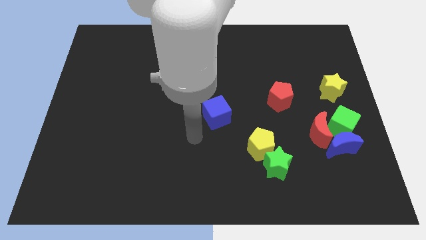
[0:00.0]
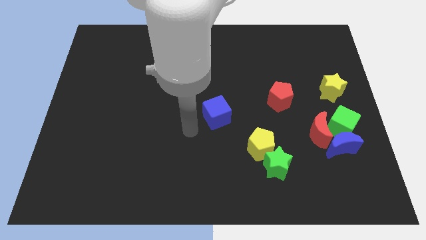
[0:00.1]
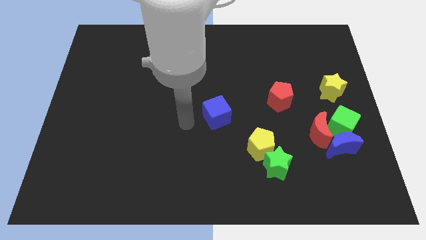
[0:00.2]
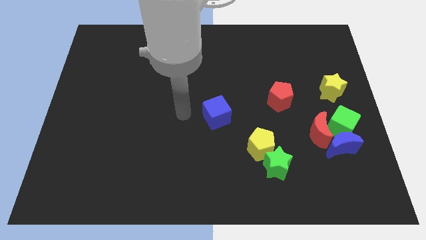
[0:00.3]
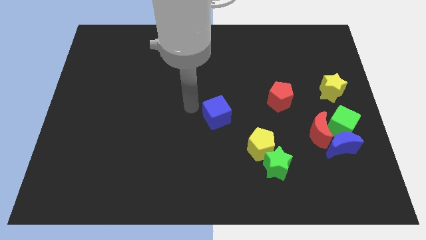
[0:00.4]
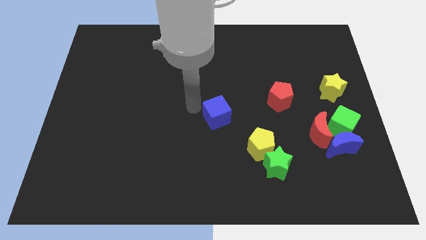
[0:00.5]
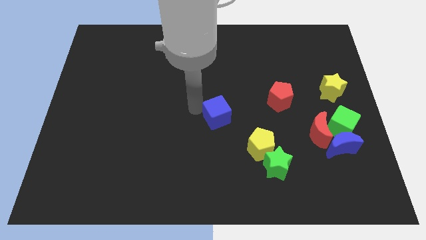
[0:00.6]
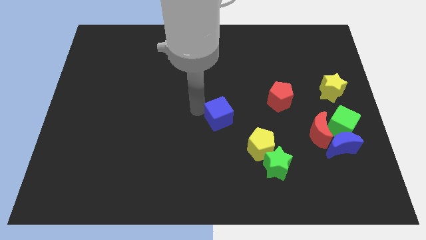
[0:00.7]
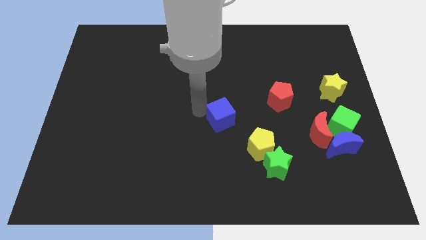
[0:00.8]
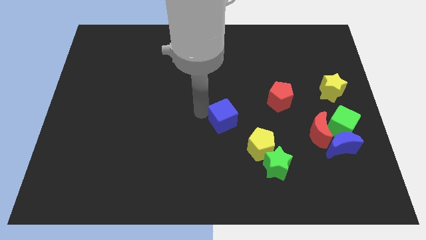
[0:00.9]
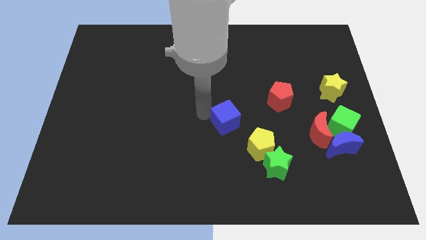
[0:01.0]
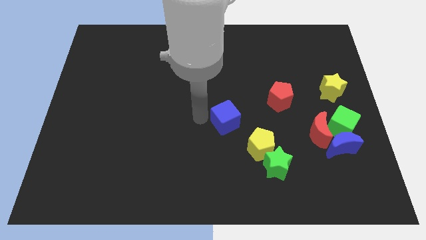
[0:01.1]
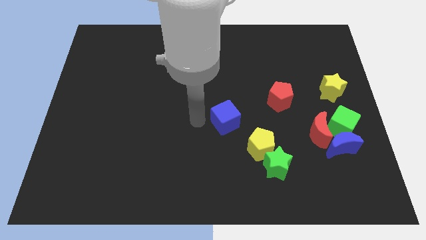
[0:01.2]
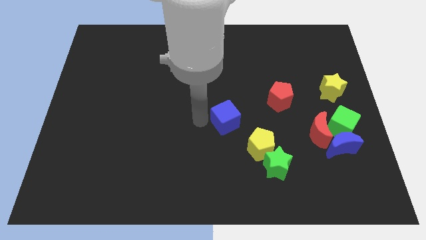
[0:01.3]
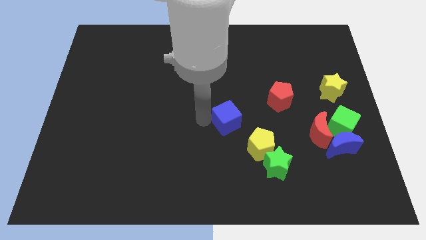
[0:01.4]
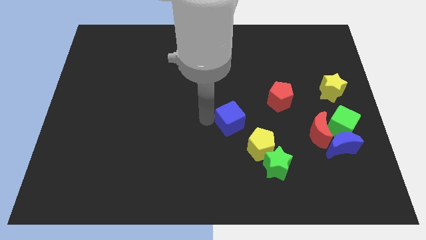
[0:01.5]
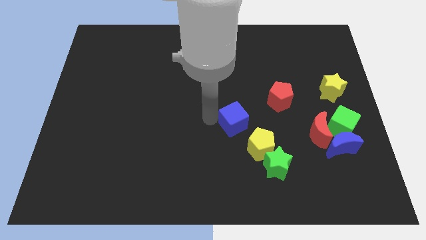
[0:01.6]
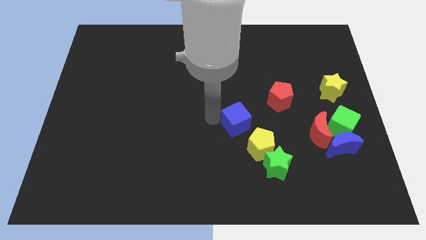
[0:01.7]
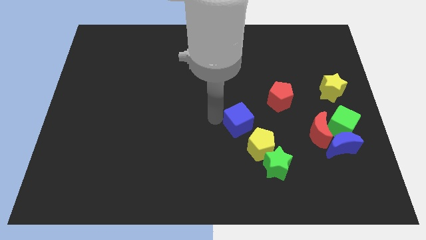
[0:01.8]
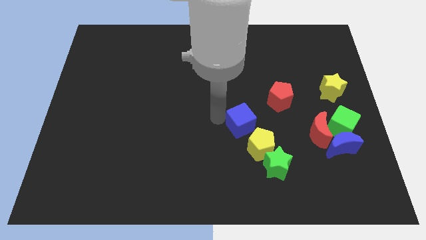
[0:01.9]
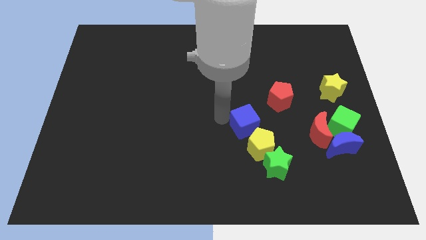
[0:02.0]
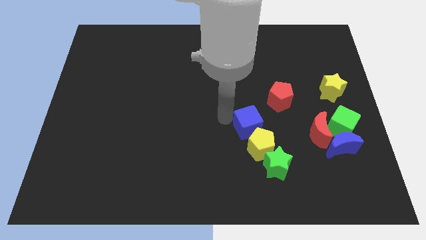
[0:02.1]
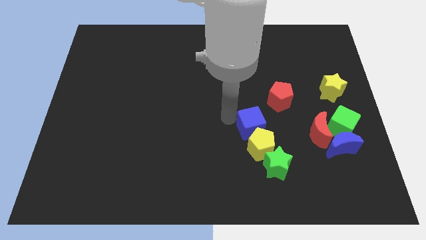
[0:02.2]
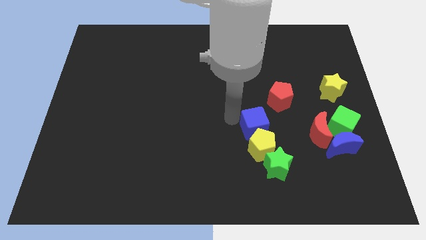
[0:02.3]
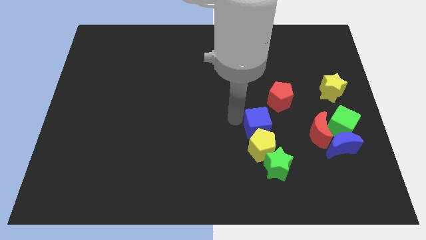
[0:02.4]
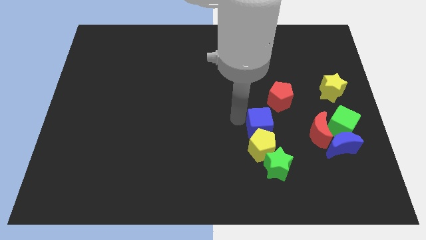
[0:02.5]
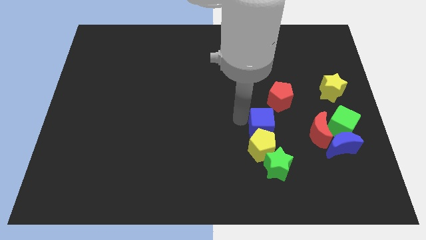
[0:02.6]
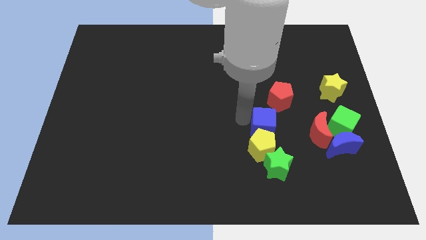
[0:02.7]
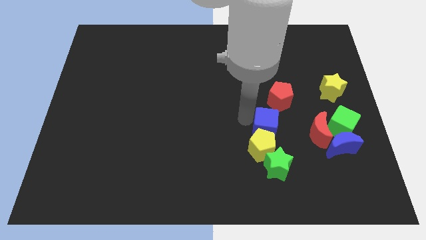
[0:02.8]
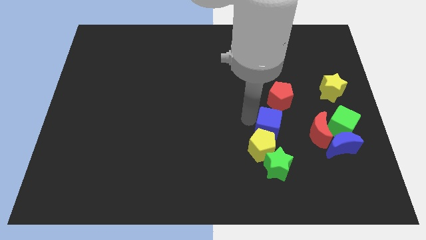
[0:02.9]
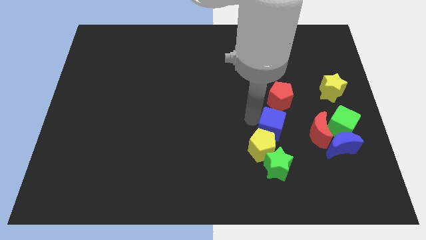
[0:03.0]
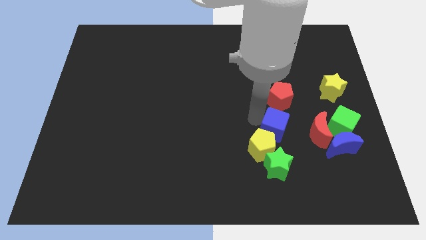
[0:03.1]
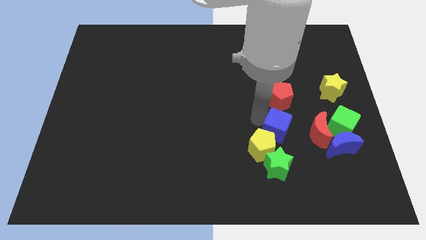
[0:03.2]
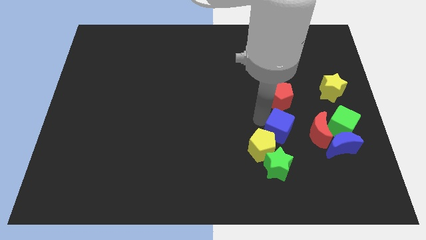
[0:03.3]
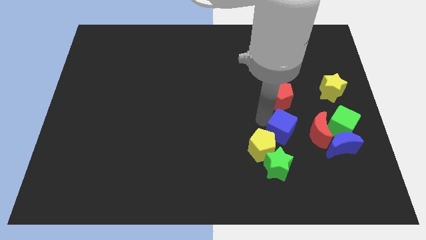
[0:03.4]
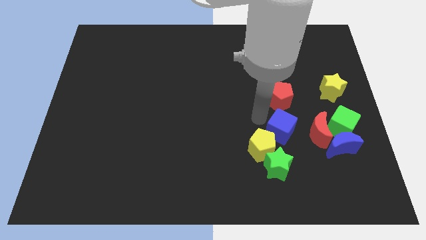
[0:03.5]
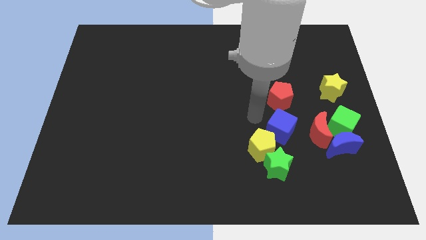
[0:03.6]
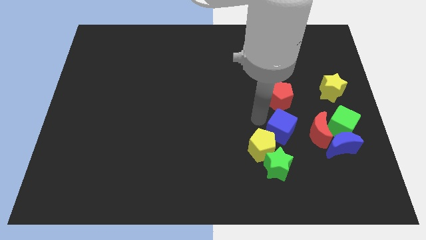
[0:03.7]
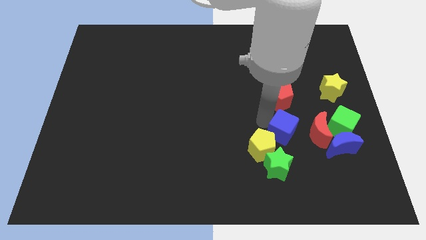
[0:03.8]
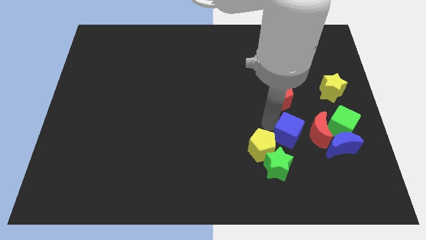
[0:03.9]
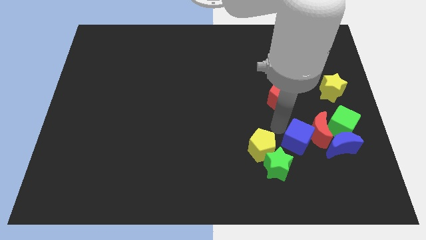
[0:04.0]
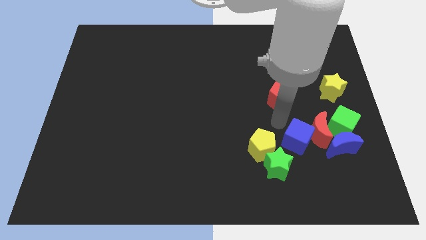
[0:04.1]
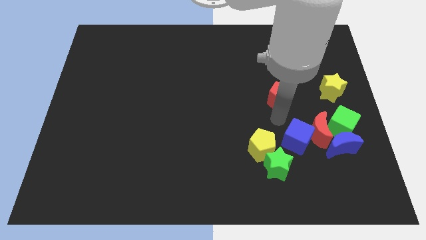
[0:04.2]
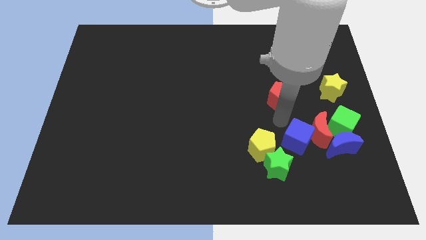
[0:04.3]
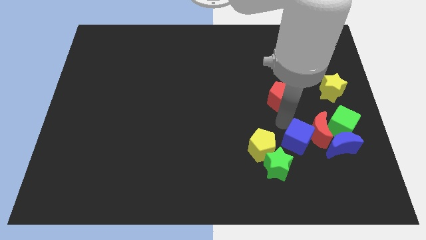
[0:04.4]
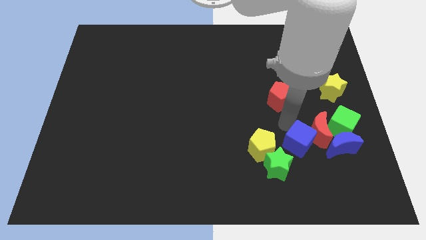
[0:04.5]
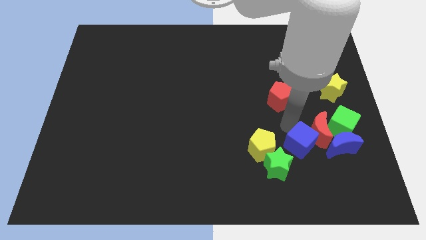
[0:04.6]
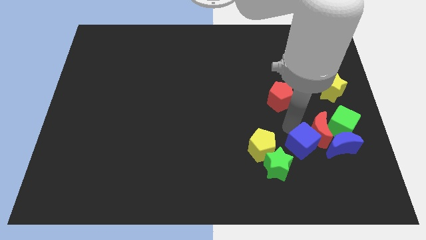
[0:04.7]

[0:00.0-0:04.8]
push the blue cube to the bottom side of the red moon

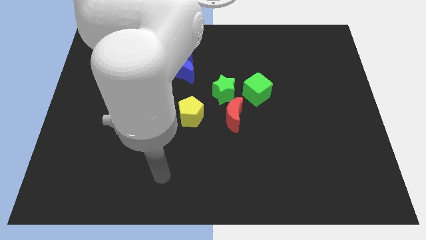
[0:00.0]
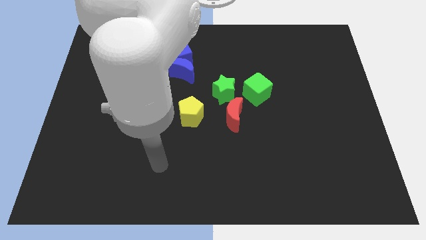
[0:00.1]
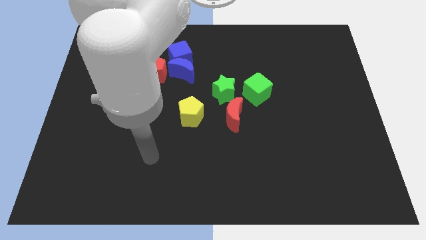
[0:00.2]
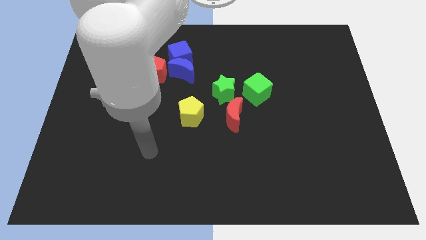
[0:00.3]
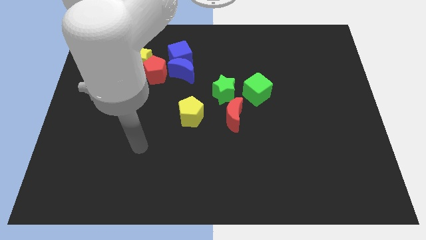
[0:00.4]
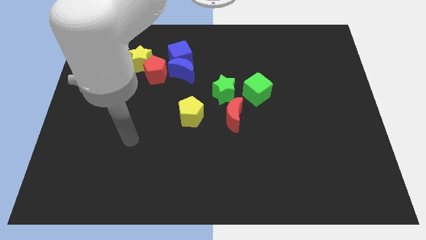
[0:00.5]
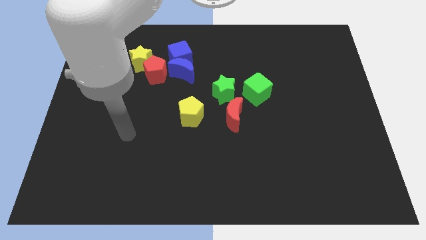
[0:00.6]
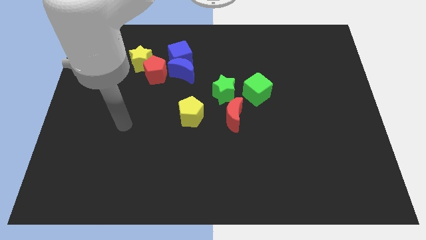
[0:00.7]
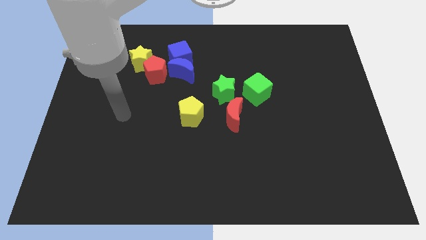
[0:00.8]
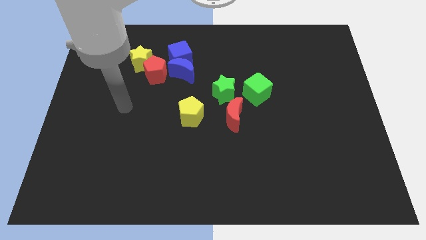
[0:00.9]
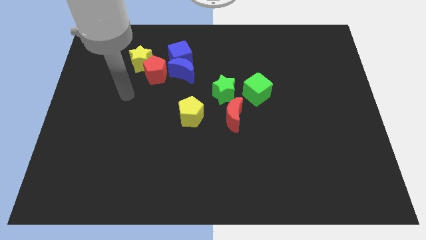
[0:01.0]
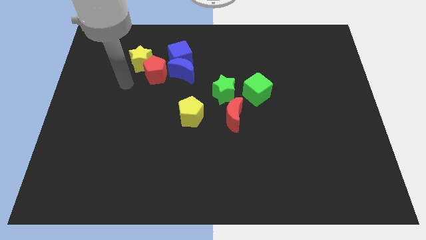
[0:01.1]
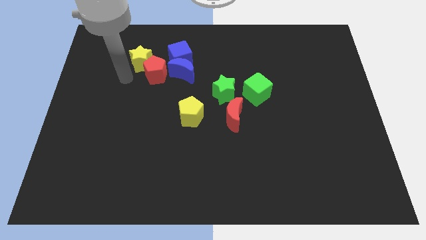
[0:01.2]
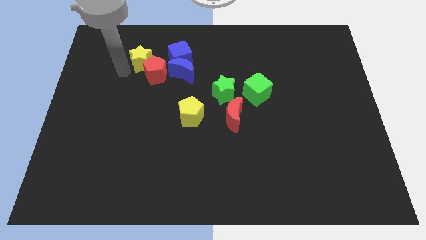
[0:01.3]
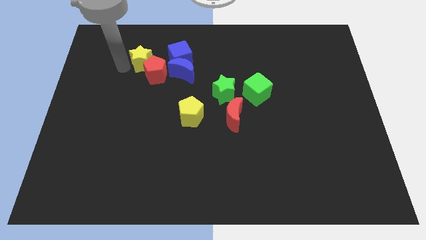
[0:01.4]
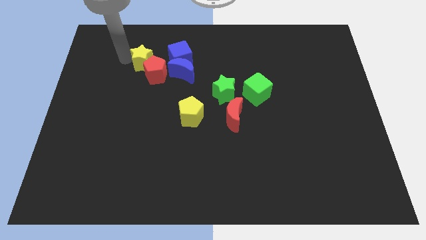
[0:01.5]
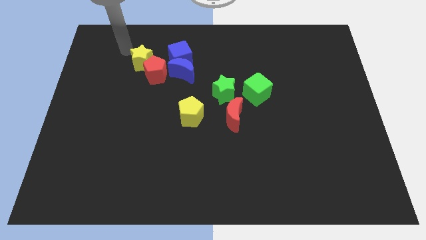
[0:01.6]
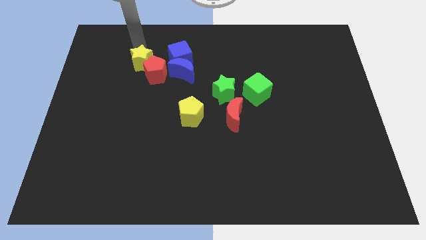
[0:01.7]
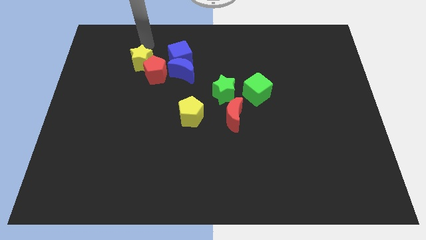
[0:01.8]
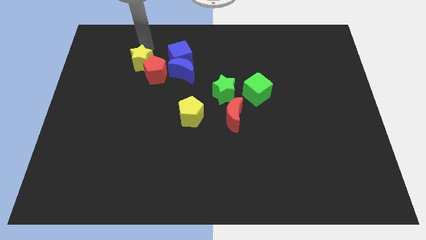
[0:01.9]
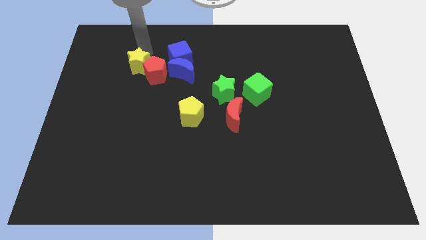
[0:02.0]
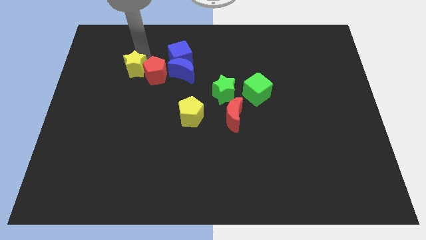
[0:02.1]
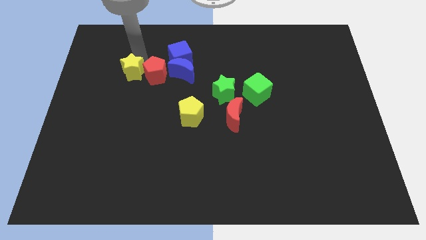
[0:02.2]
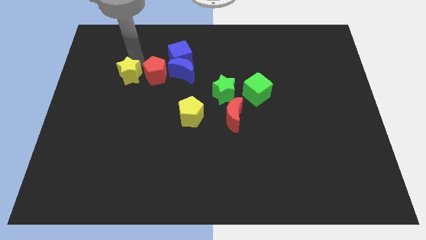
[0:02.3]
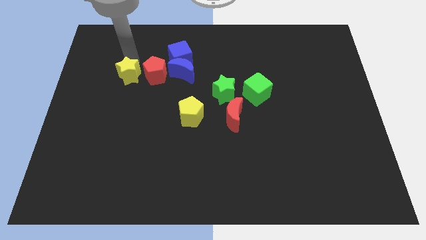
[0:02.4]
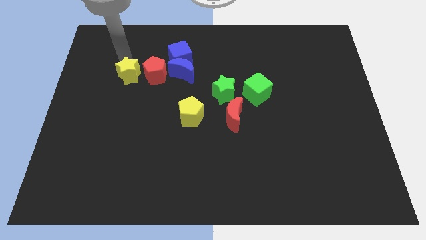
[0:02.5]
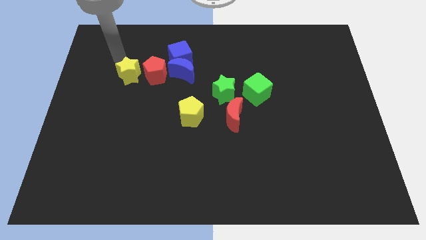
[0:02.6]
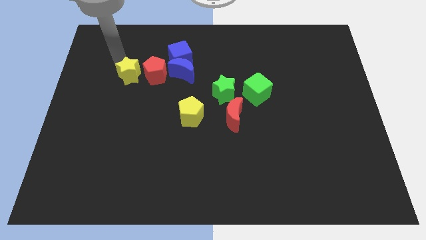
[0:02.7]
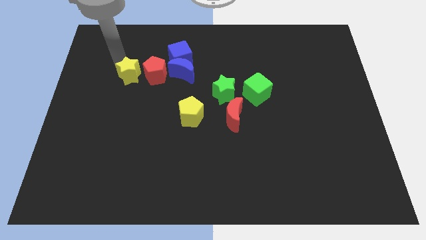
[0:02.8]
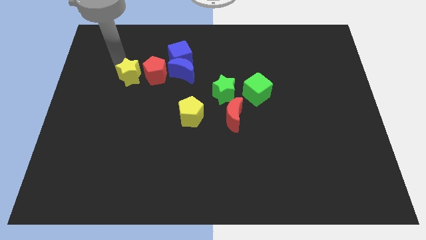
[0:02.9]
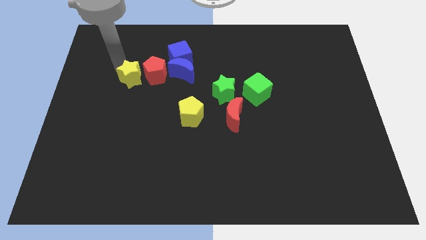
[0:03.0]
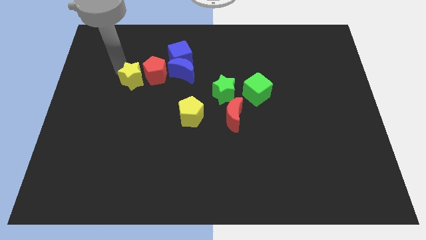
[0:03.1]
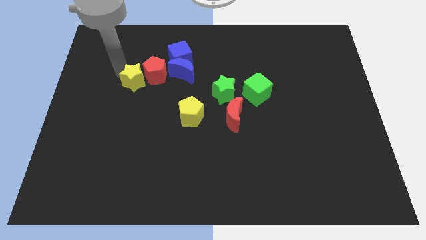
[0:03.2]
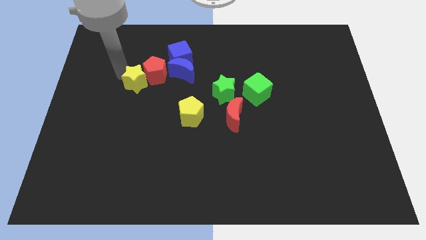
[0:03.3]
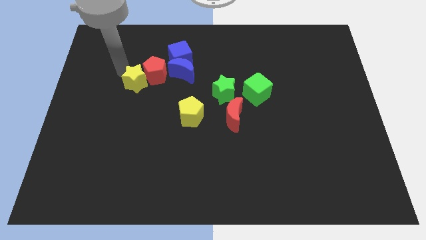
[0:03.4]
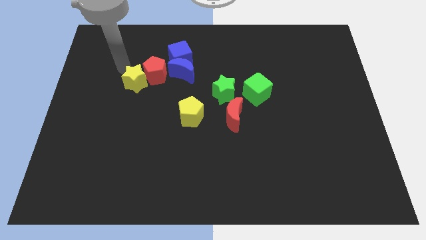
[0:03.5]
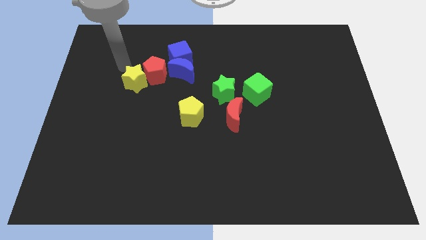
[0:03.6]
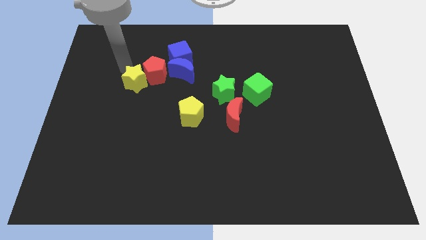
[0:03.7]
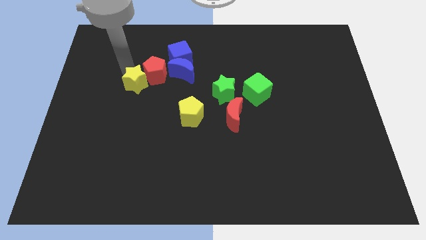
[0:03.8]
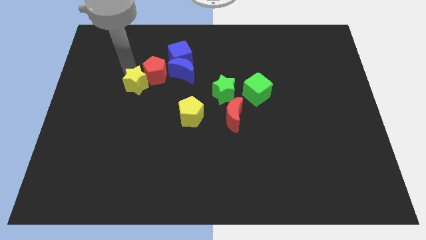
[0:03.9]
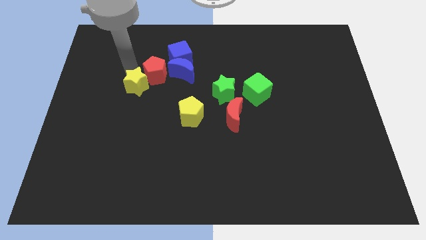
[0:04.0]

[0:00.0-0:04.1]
slide the yellow star below the red pentagon
